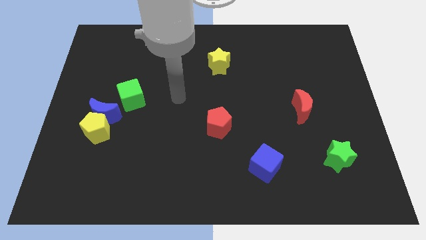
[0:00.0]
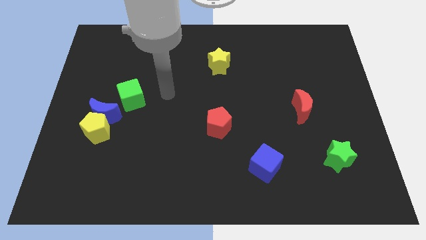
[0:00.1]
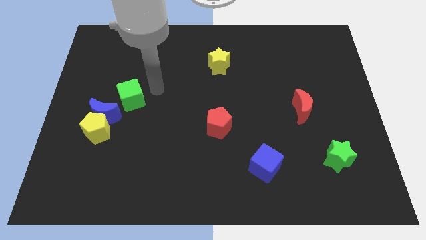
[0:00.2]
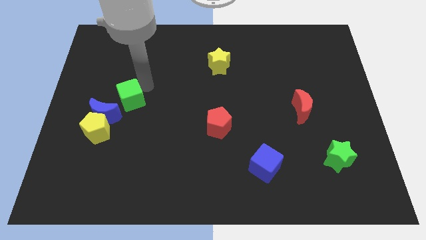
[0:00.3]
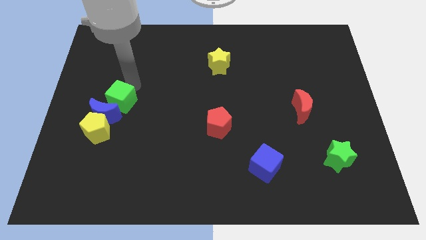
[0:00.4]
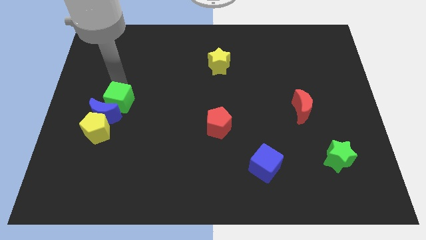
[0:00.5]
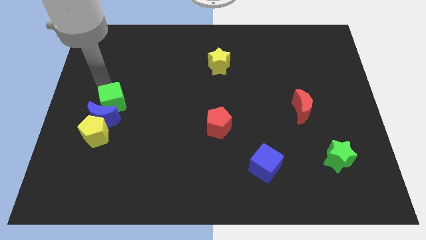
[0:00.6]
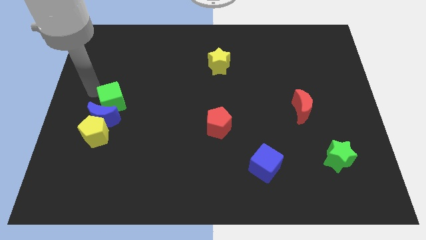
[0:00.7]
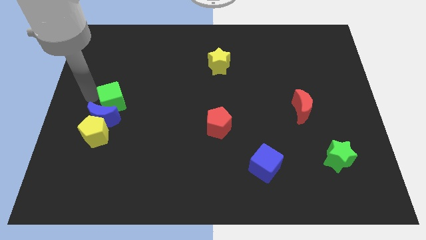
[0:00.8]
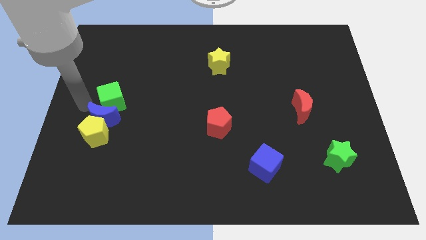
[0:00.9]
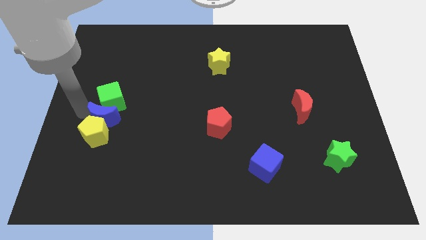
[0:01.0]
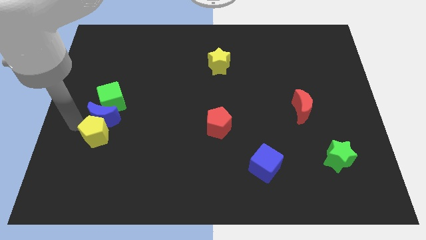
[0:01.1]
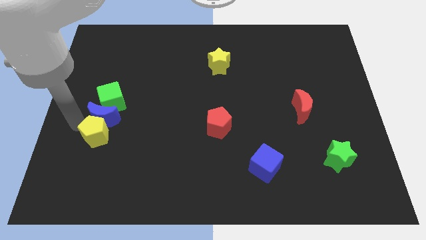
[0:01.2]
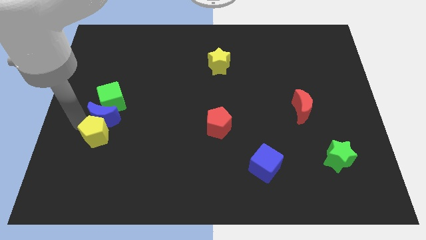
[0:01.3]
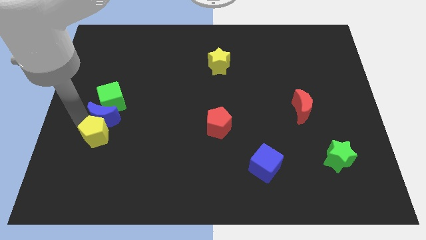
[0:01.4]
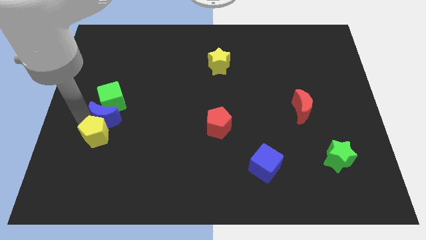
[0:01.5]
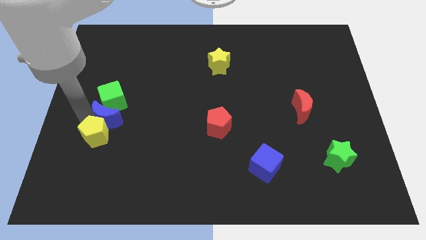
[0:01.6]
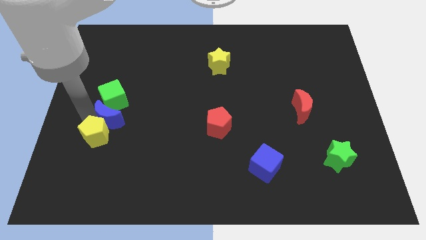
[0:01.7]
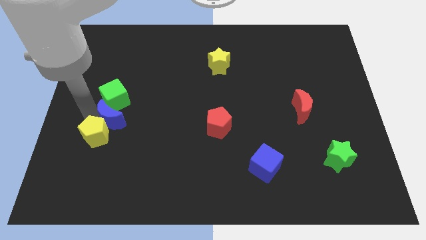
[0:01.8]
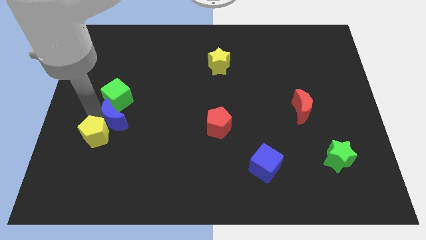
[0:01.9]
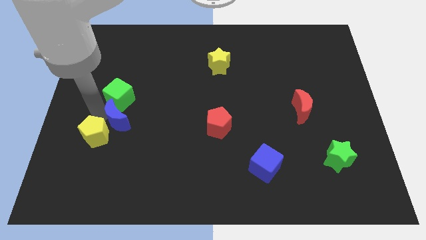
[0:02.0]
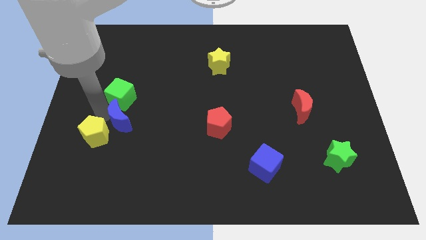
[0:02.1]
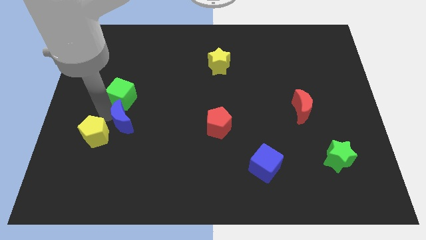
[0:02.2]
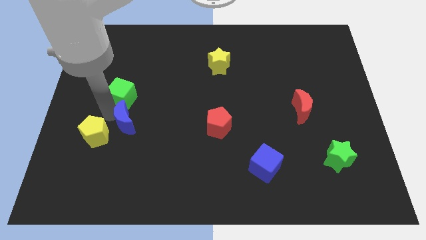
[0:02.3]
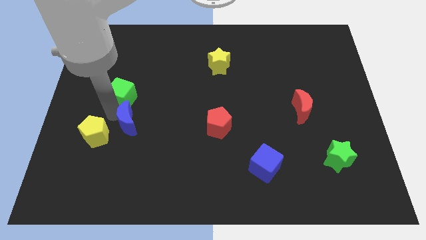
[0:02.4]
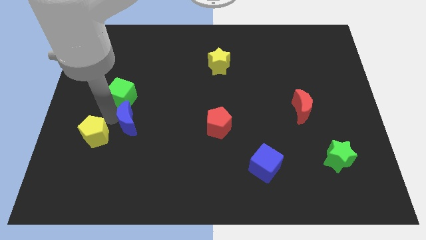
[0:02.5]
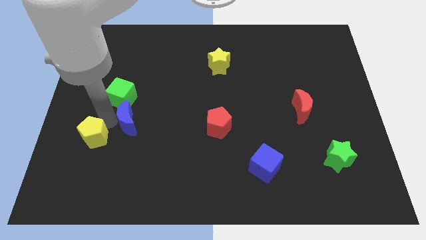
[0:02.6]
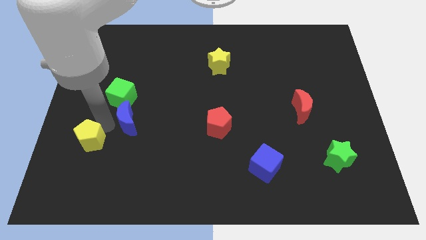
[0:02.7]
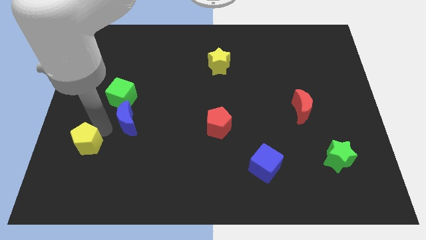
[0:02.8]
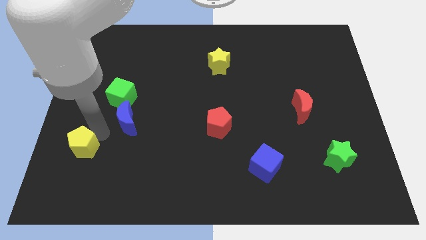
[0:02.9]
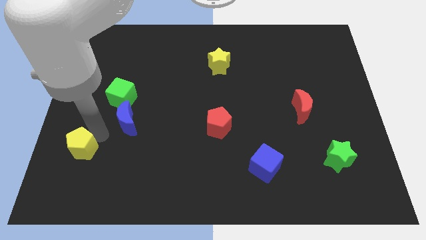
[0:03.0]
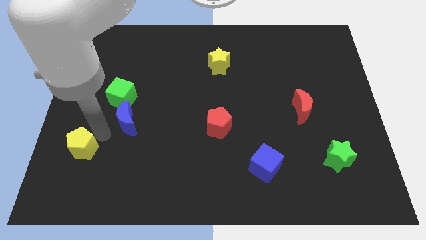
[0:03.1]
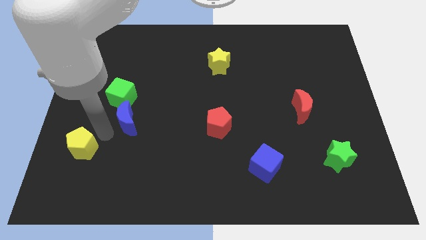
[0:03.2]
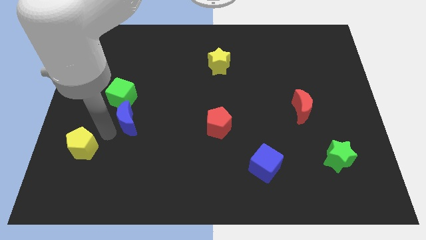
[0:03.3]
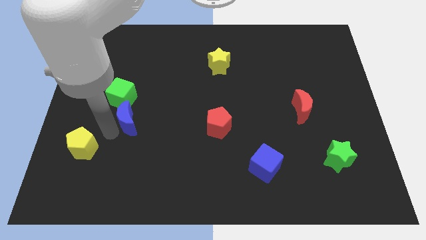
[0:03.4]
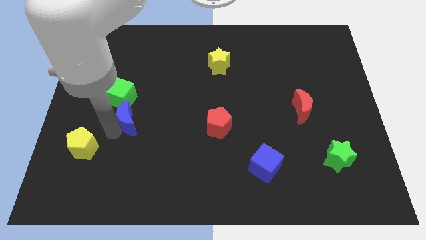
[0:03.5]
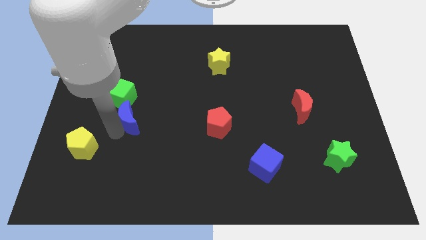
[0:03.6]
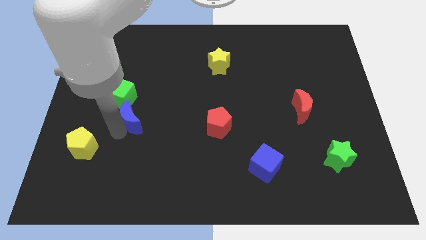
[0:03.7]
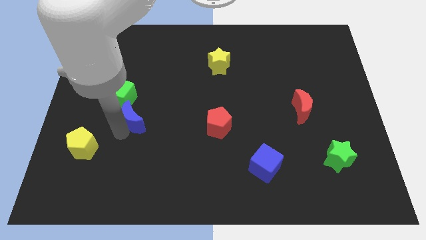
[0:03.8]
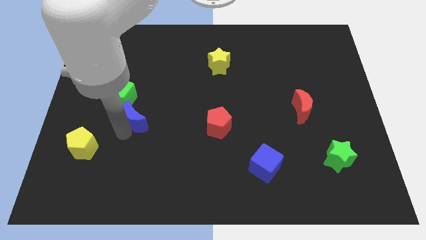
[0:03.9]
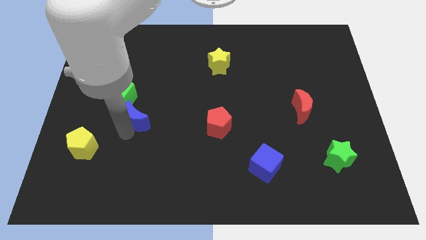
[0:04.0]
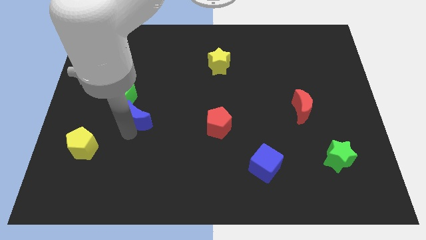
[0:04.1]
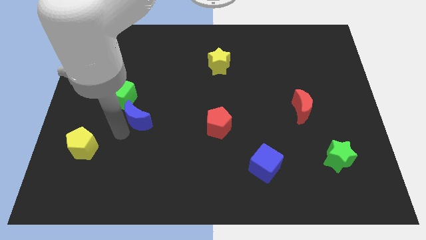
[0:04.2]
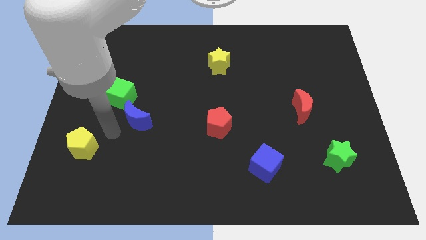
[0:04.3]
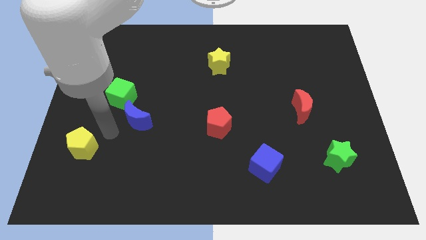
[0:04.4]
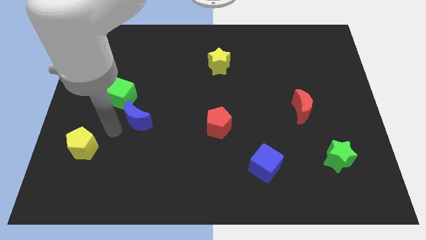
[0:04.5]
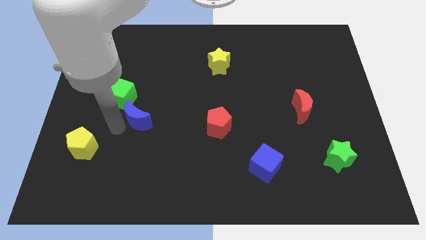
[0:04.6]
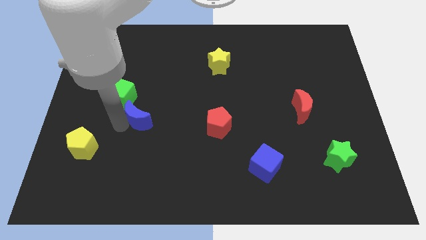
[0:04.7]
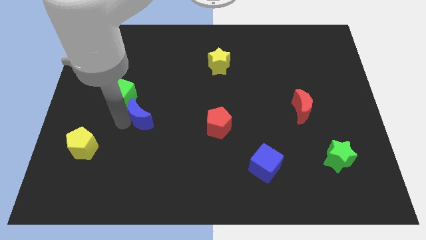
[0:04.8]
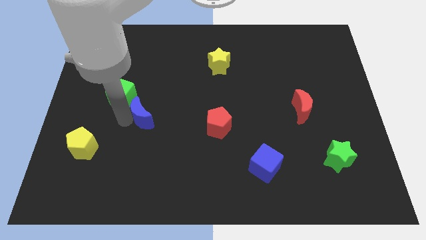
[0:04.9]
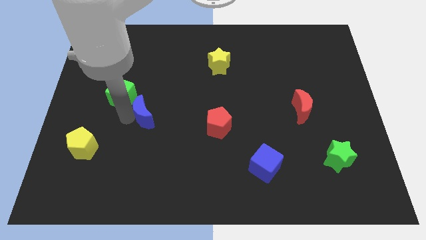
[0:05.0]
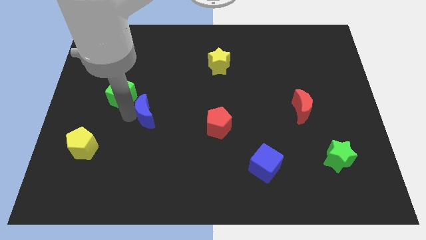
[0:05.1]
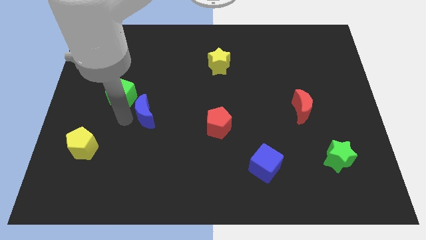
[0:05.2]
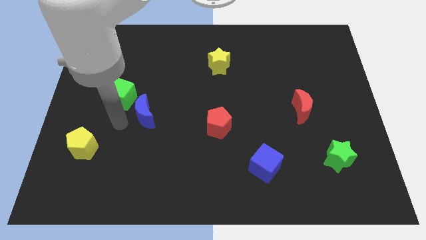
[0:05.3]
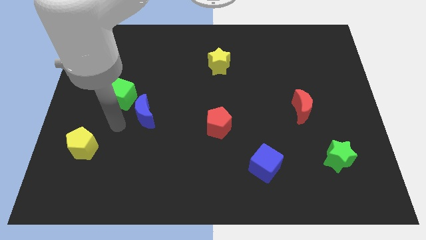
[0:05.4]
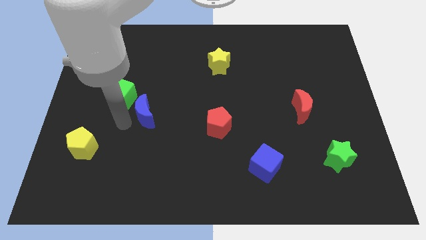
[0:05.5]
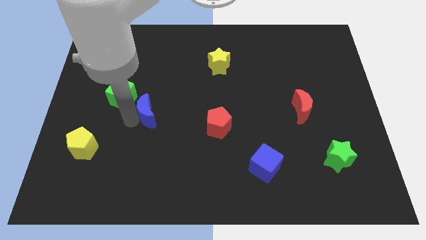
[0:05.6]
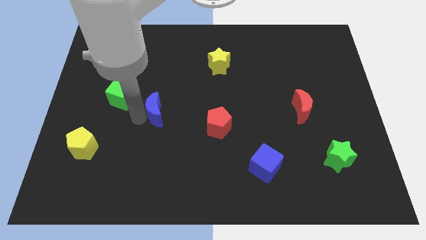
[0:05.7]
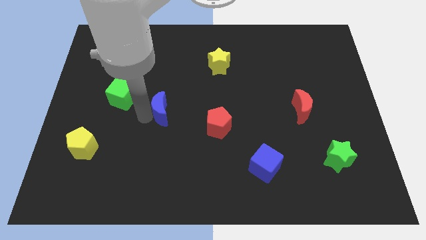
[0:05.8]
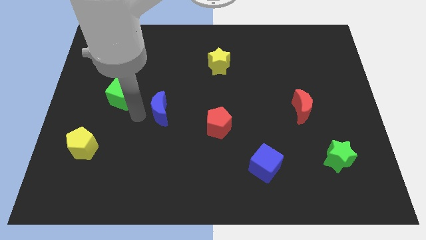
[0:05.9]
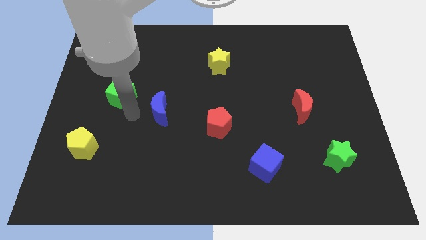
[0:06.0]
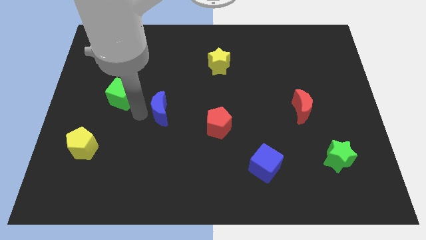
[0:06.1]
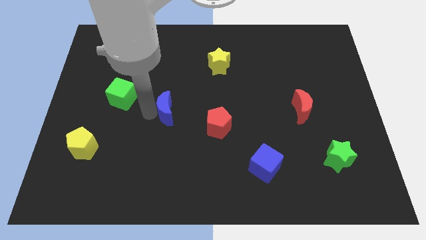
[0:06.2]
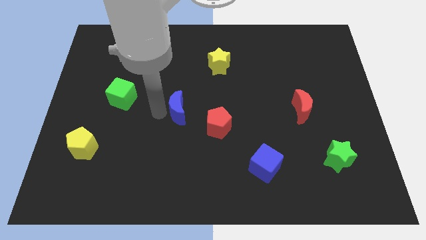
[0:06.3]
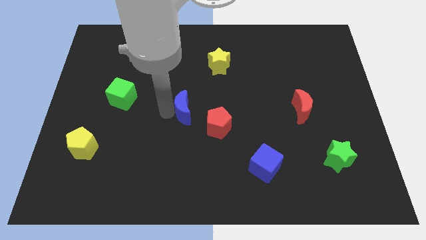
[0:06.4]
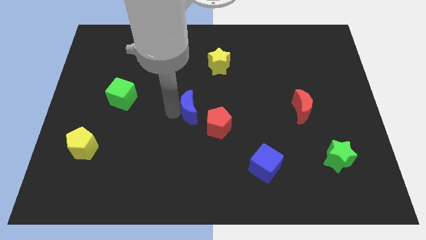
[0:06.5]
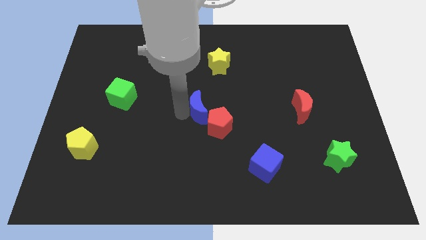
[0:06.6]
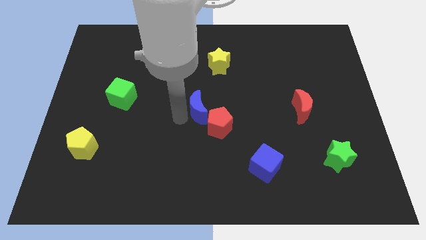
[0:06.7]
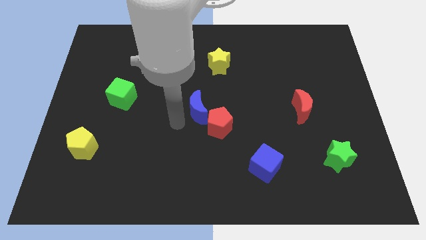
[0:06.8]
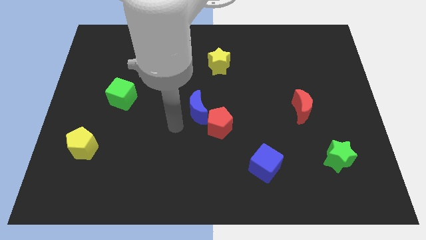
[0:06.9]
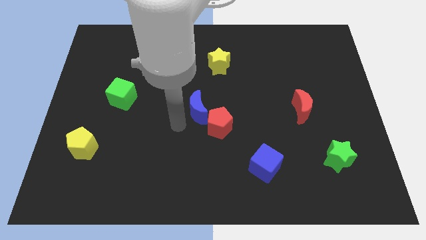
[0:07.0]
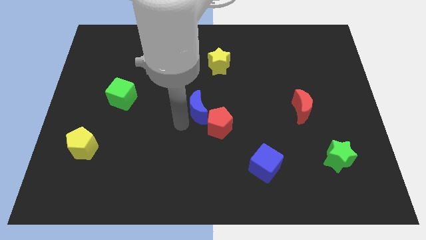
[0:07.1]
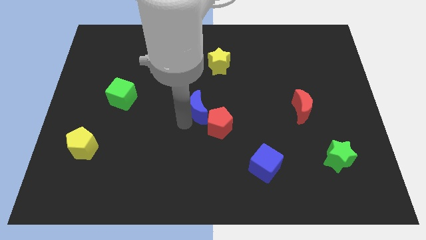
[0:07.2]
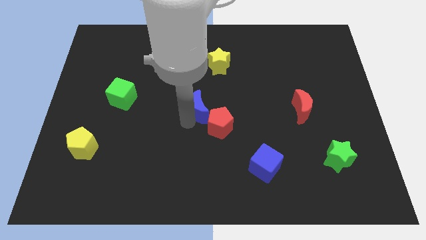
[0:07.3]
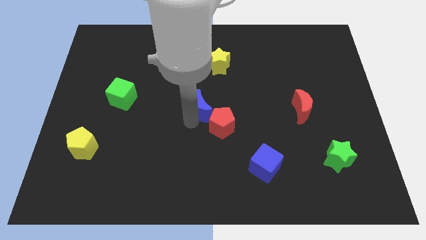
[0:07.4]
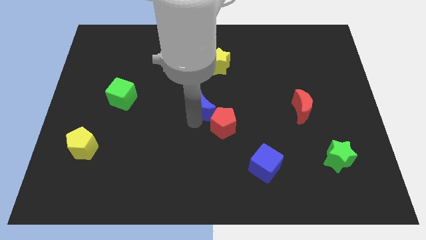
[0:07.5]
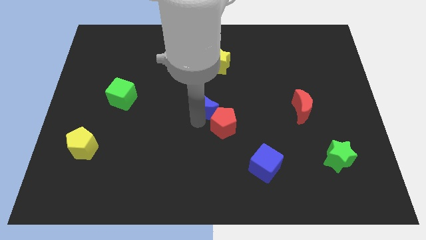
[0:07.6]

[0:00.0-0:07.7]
put the blue moon below the yellow star
